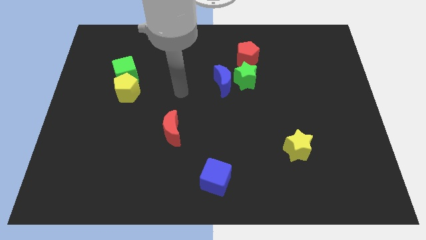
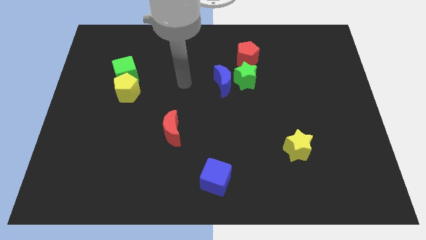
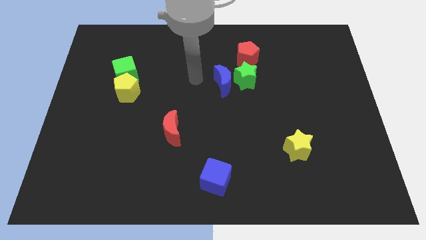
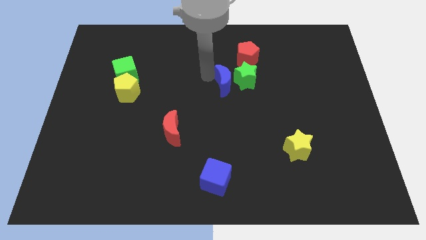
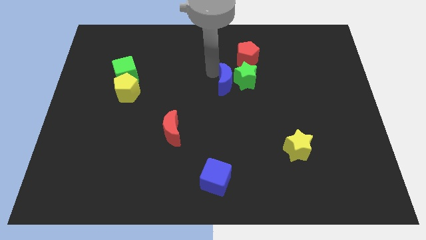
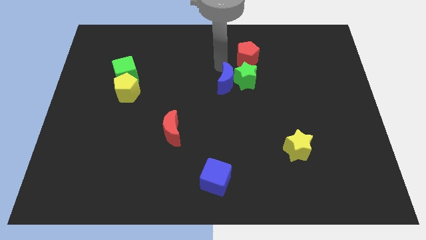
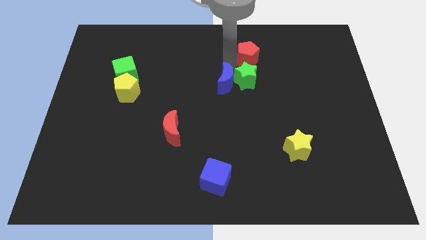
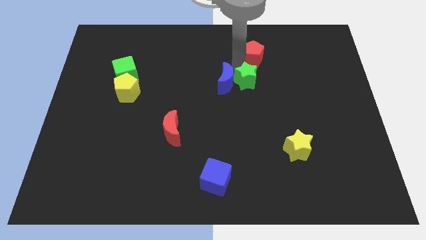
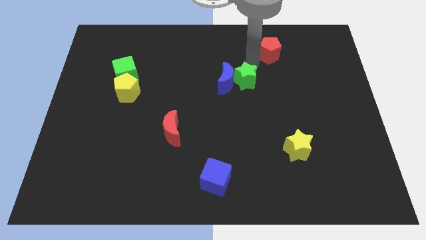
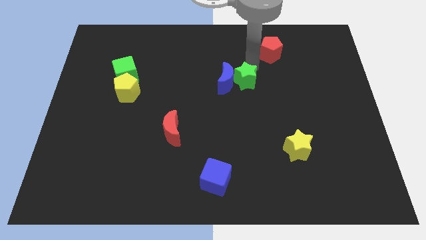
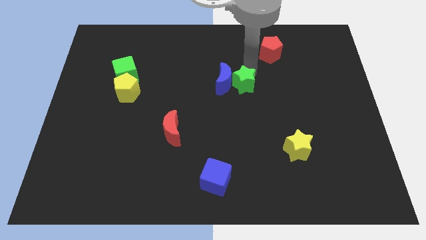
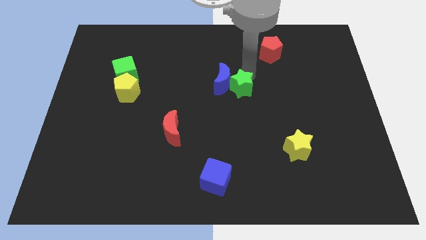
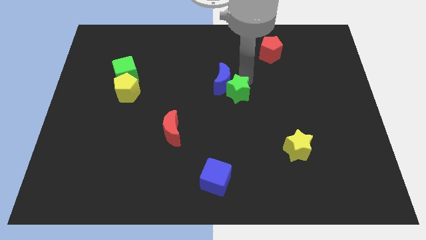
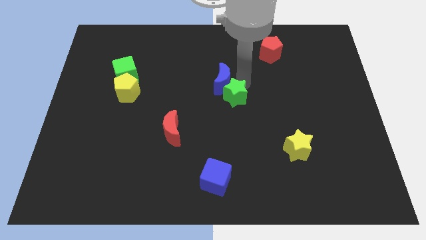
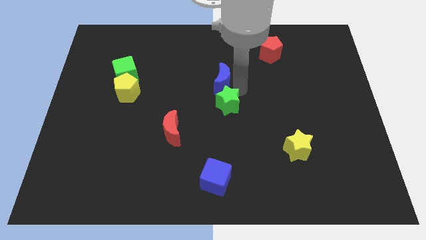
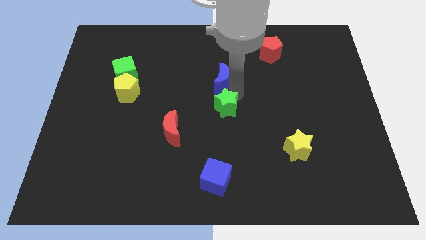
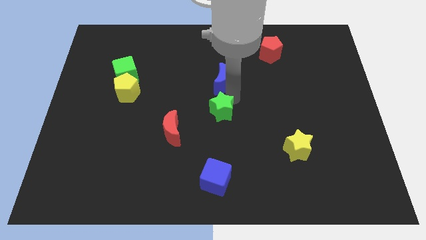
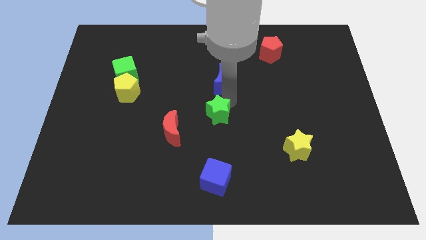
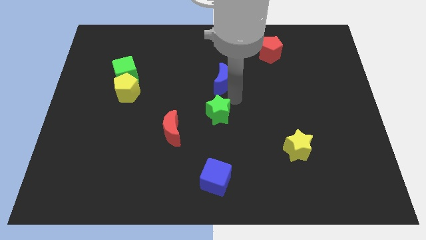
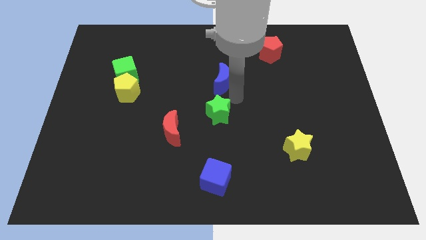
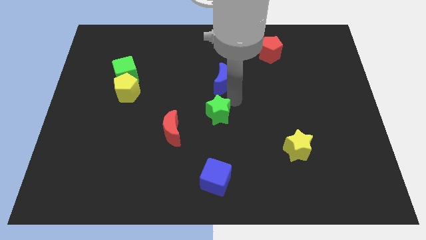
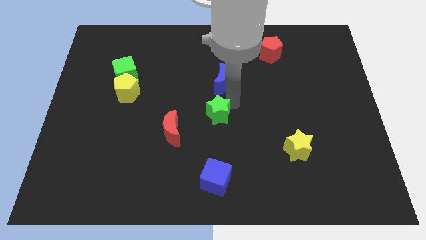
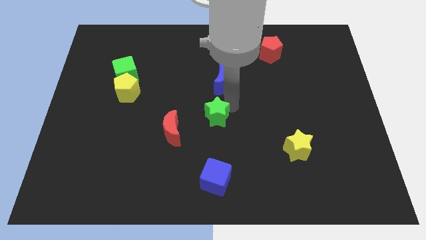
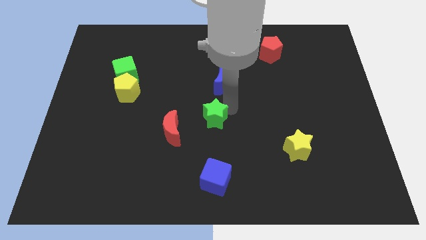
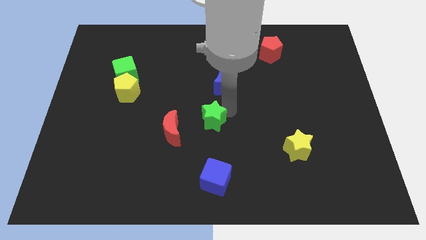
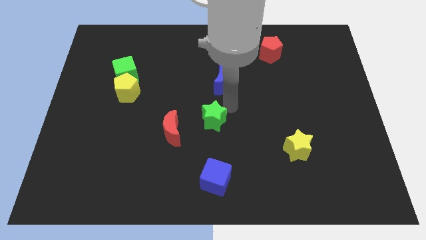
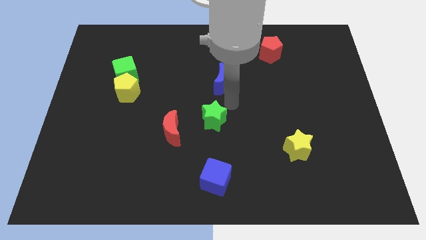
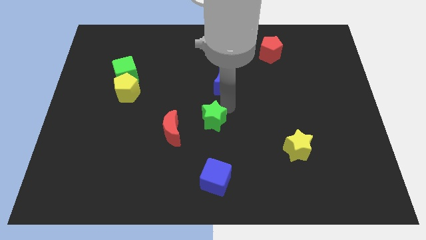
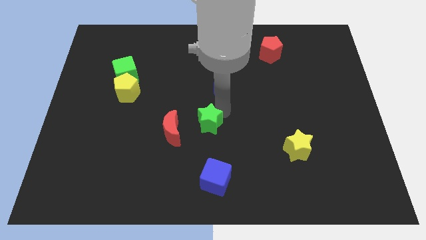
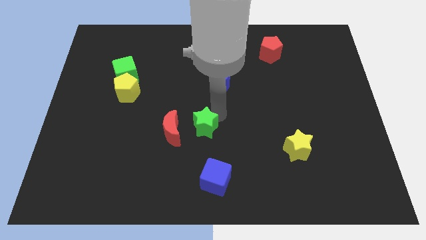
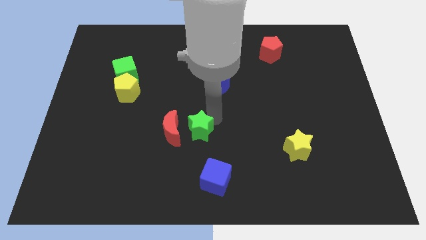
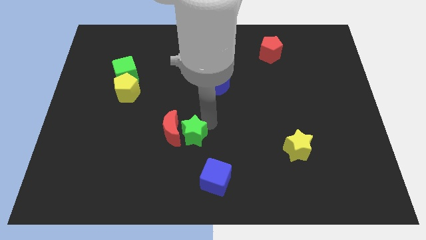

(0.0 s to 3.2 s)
slide the green star down and left

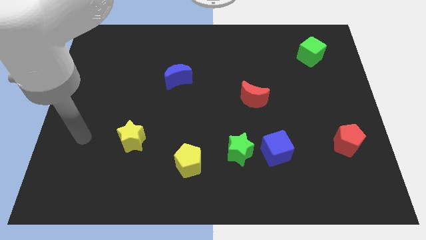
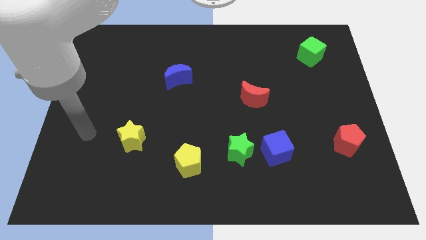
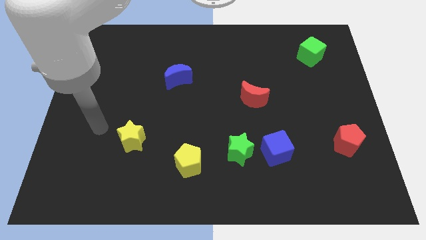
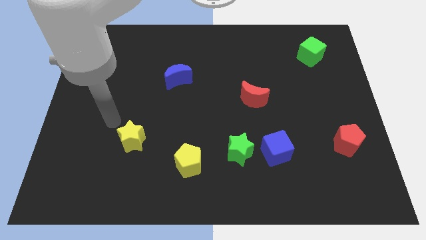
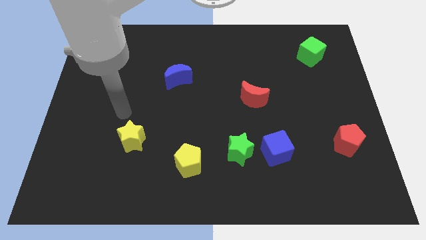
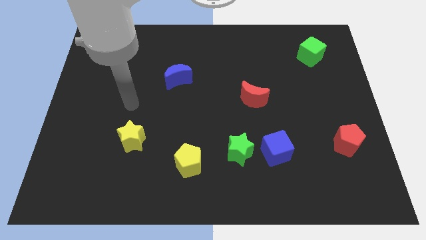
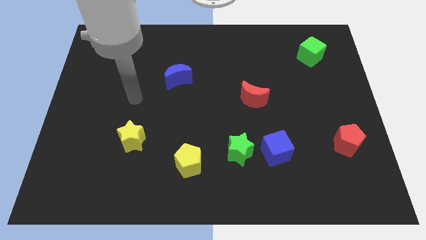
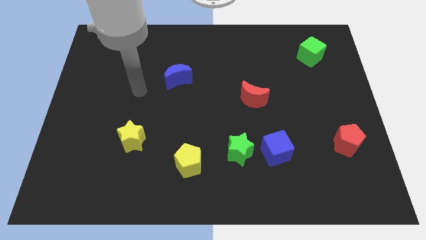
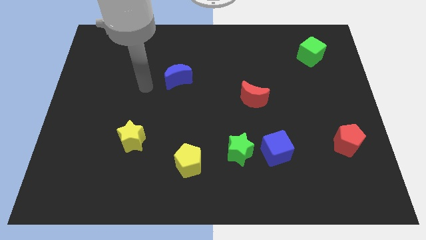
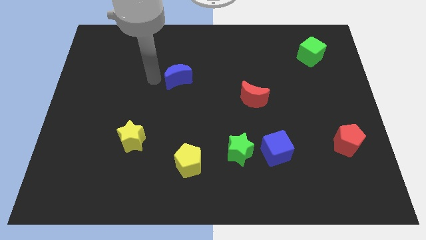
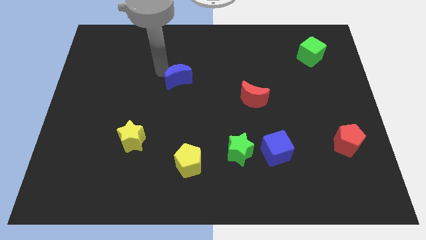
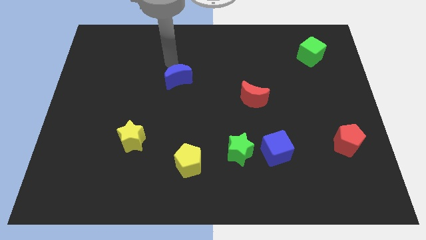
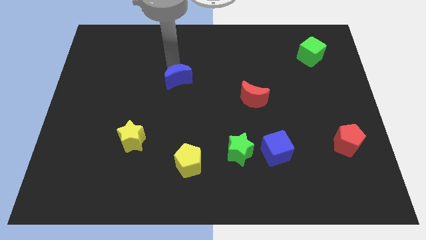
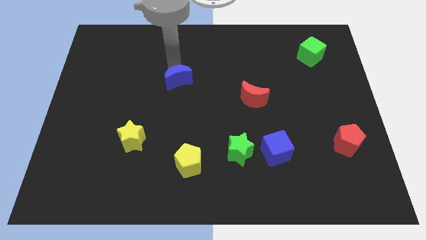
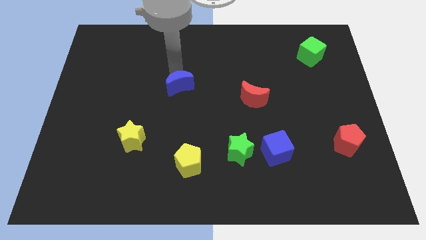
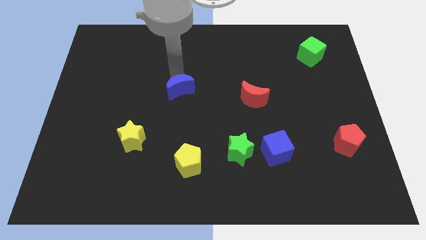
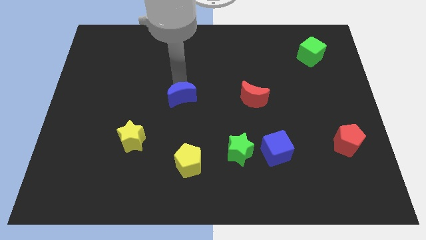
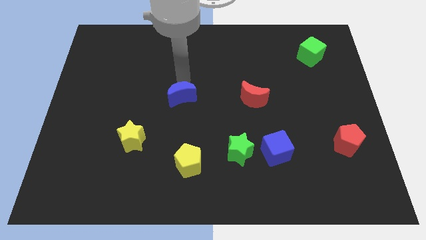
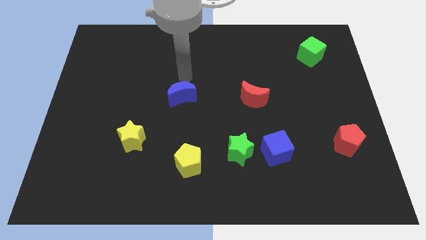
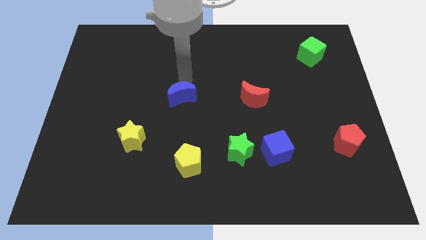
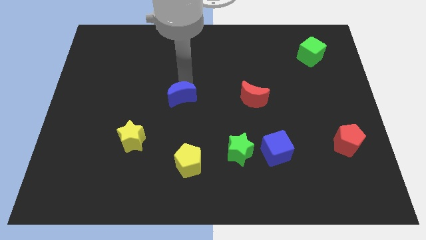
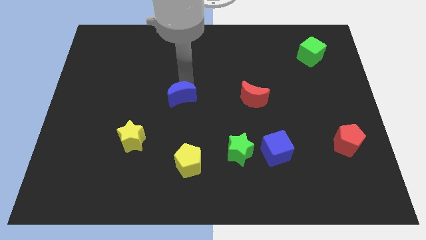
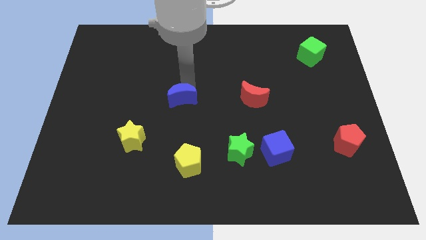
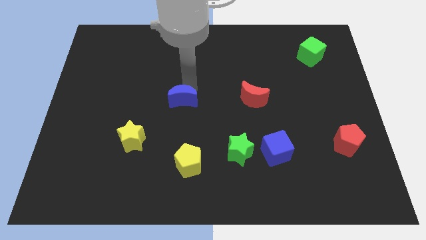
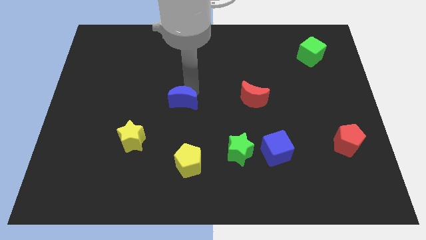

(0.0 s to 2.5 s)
slightly move the blue moon down

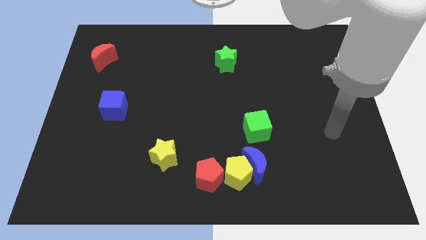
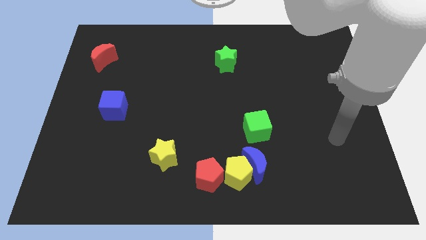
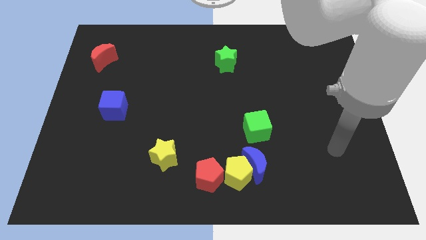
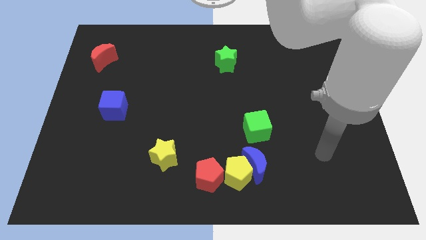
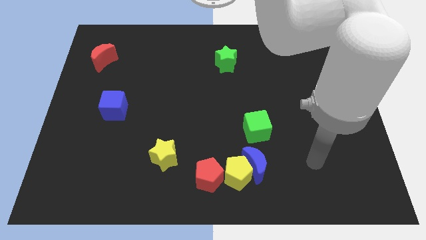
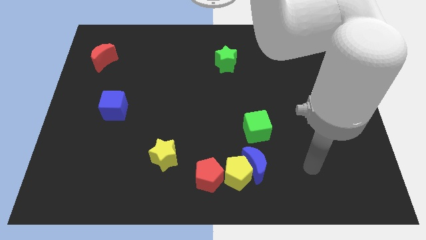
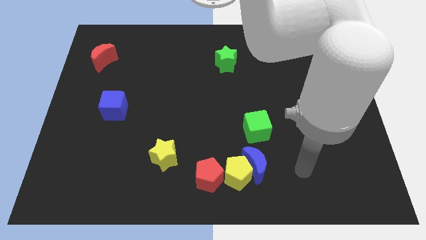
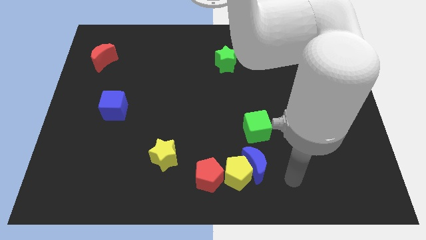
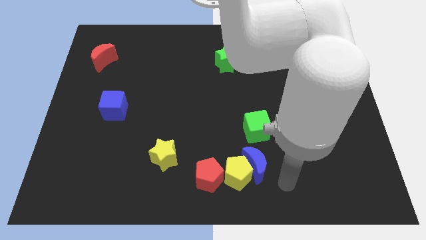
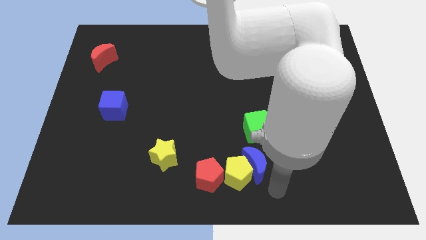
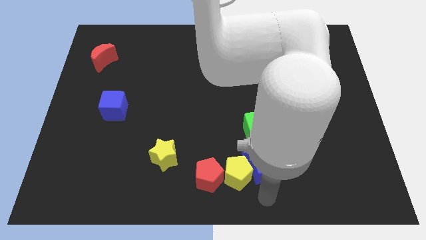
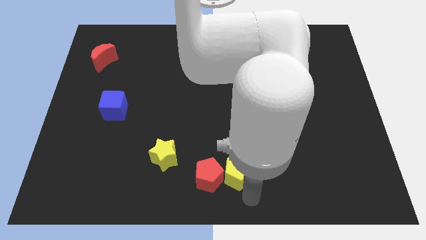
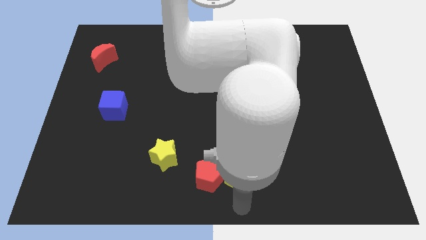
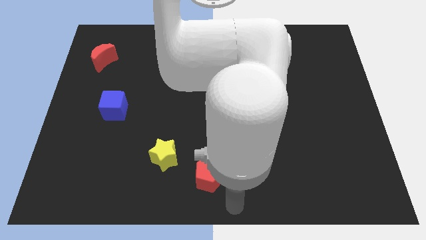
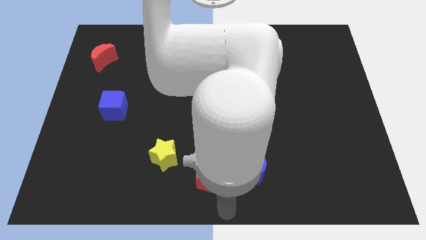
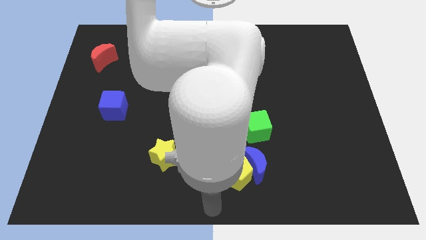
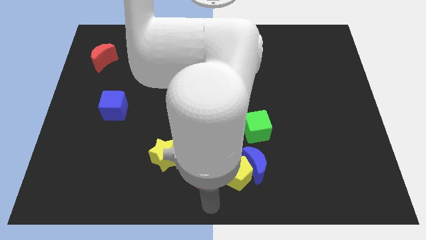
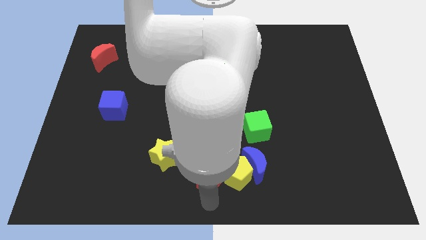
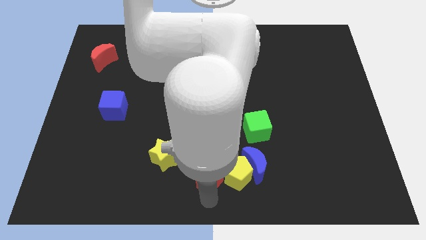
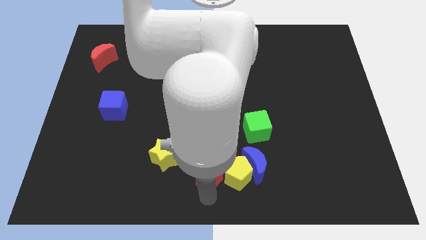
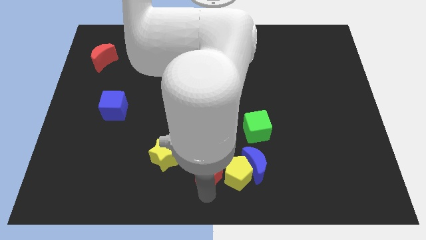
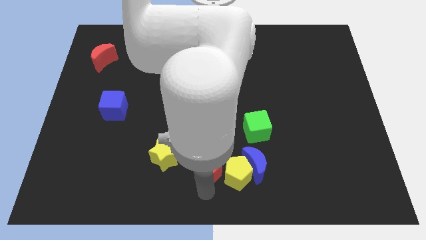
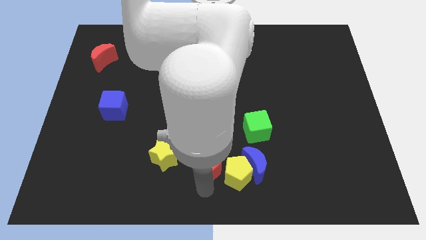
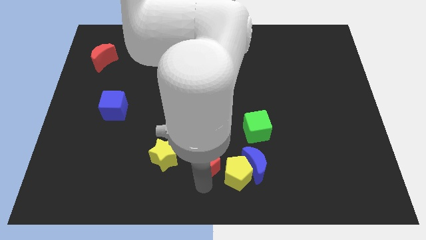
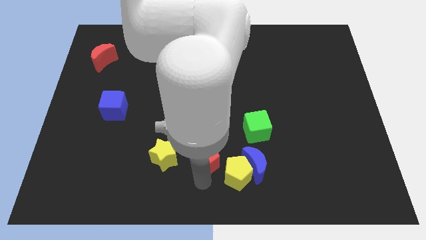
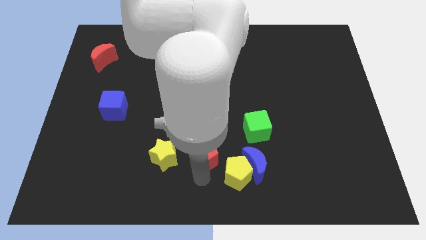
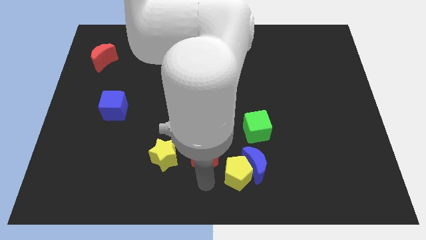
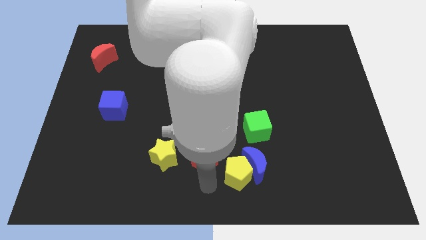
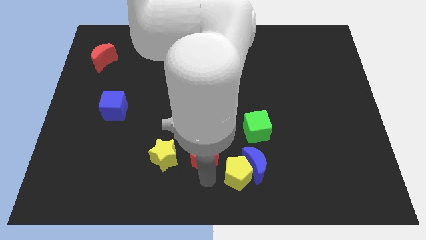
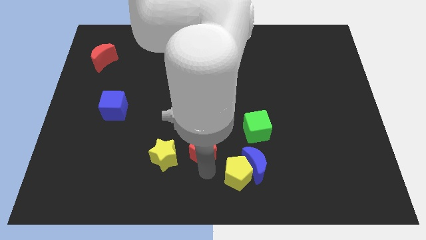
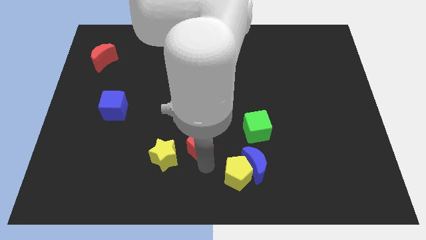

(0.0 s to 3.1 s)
move the red pentagon upwards somewhat
